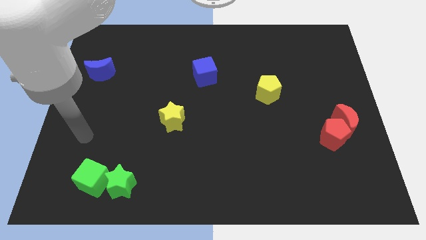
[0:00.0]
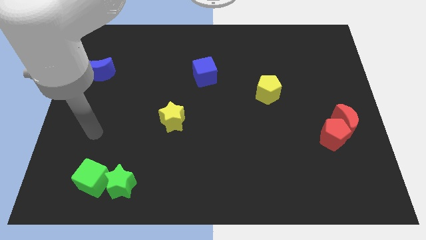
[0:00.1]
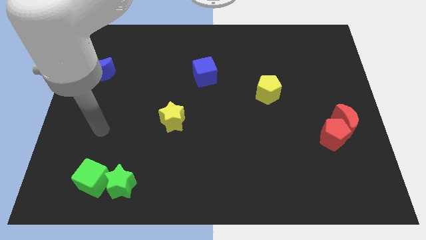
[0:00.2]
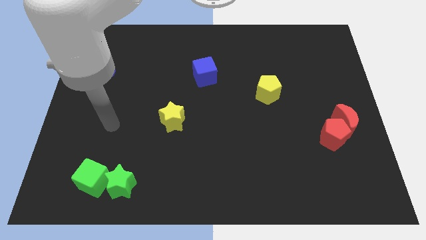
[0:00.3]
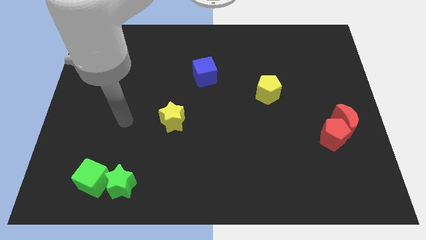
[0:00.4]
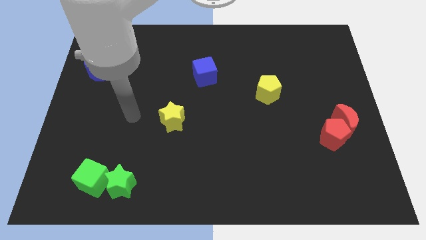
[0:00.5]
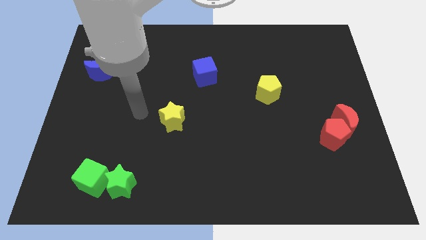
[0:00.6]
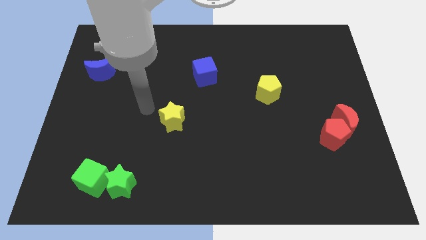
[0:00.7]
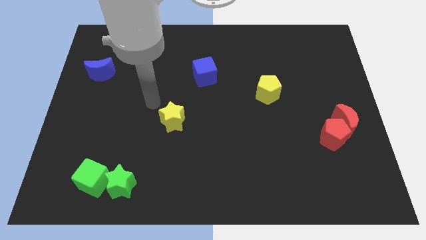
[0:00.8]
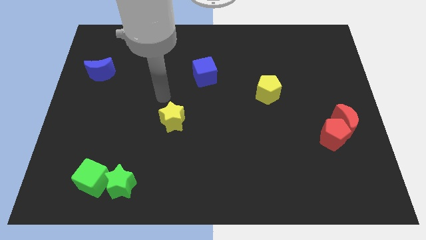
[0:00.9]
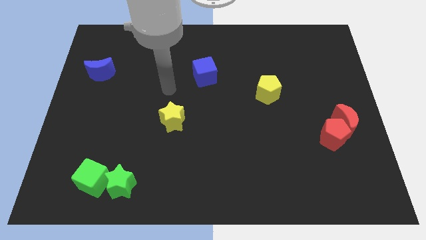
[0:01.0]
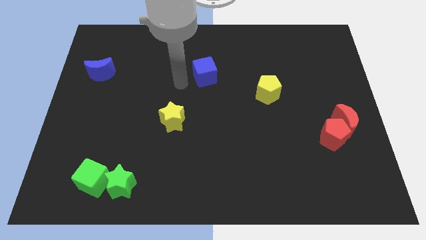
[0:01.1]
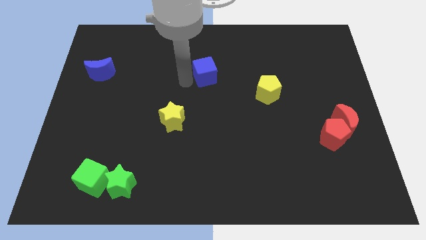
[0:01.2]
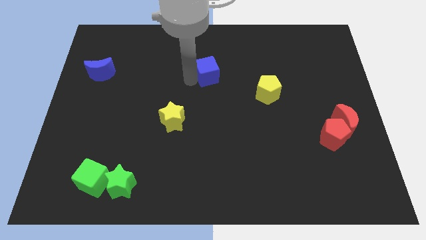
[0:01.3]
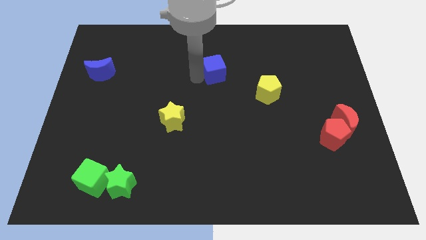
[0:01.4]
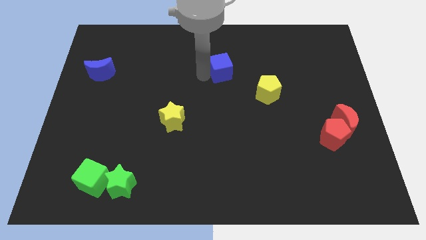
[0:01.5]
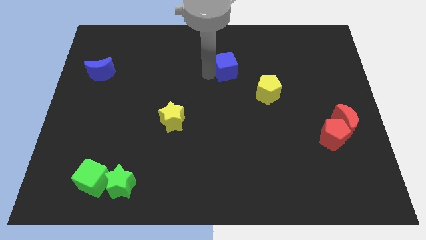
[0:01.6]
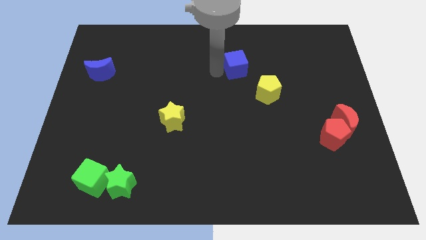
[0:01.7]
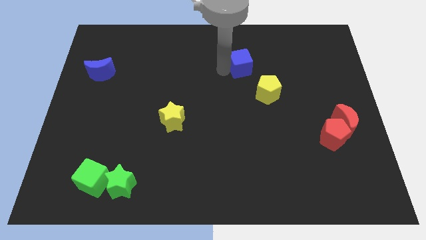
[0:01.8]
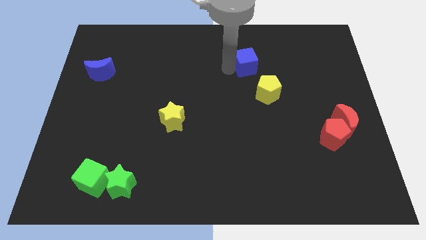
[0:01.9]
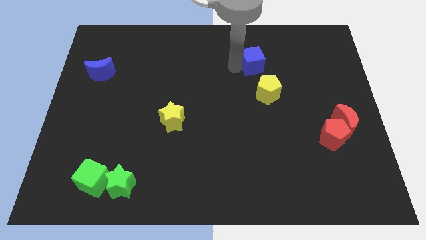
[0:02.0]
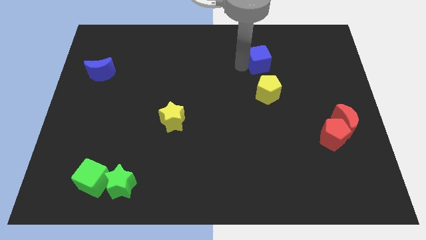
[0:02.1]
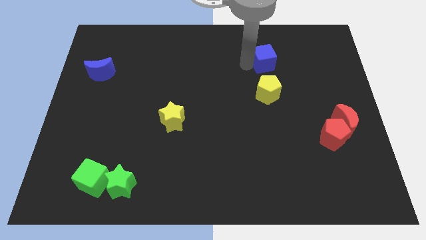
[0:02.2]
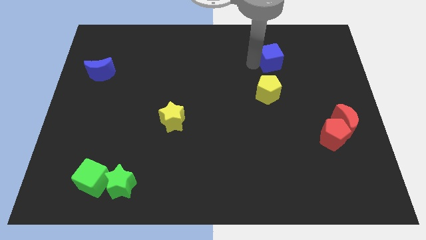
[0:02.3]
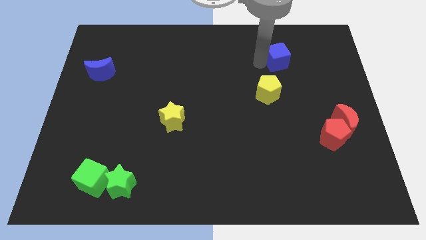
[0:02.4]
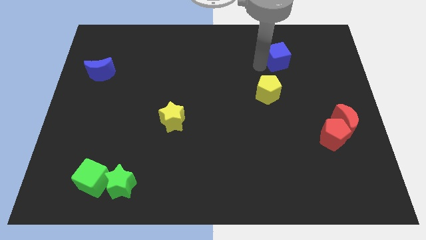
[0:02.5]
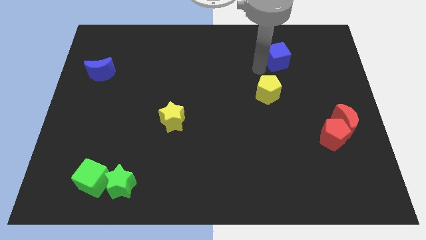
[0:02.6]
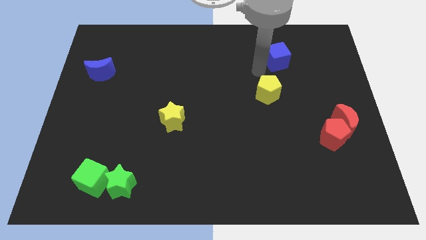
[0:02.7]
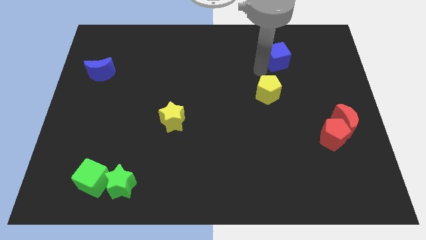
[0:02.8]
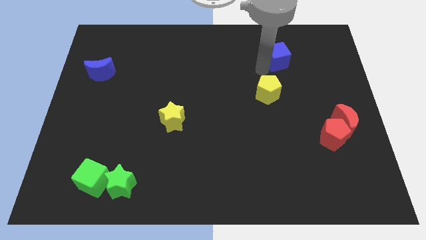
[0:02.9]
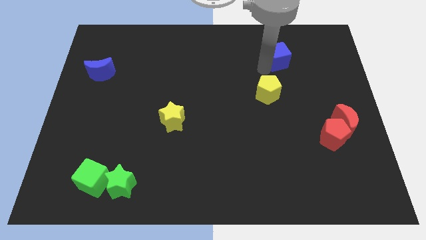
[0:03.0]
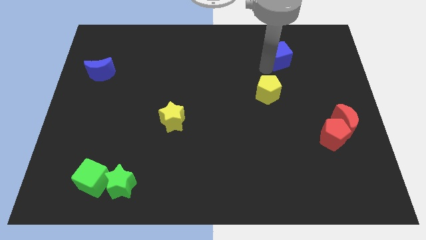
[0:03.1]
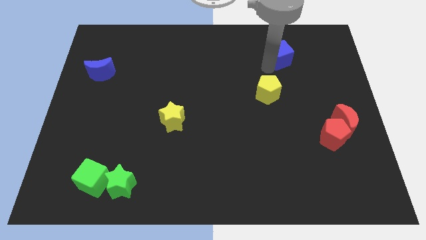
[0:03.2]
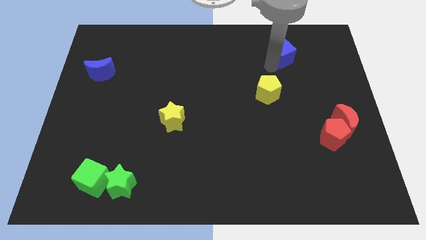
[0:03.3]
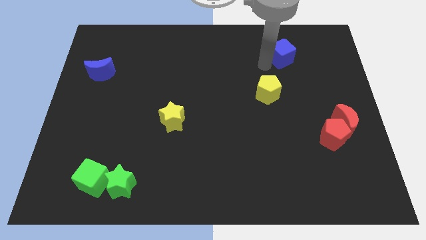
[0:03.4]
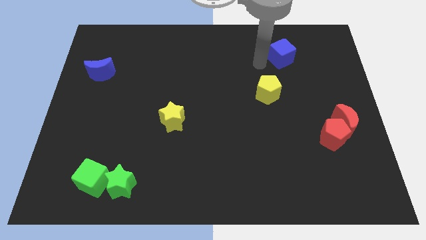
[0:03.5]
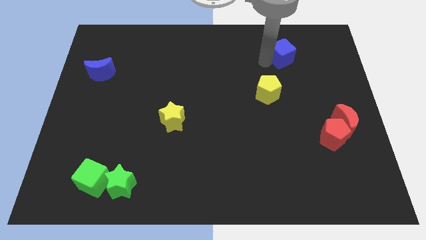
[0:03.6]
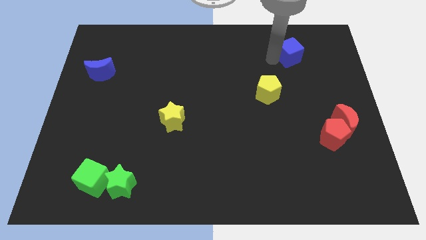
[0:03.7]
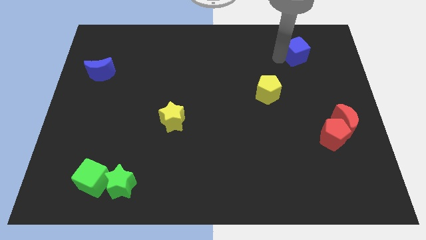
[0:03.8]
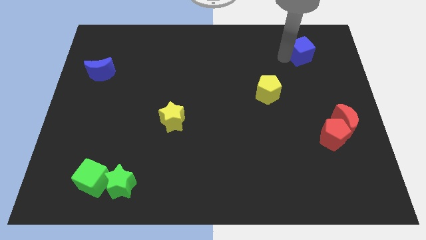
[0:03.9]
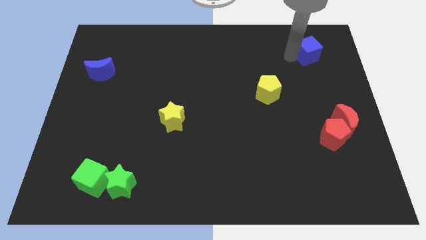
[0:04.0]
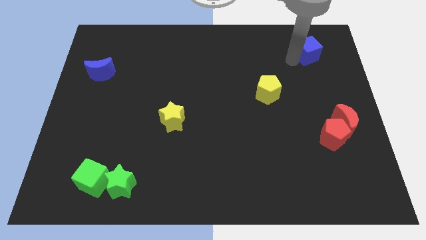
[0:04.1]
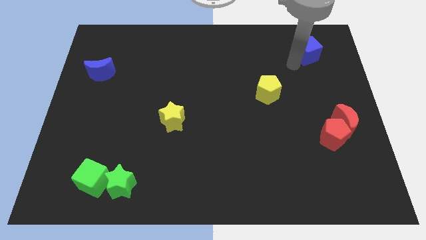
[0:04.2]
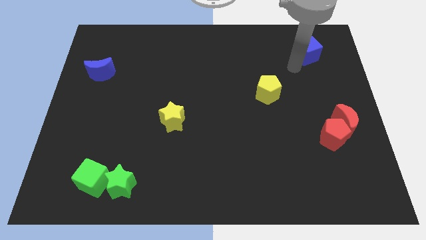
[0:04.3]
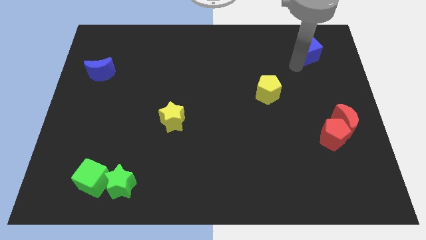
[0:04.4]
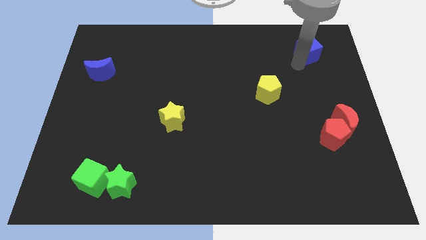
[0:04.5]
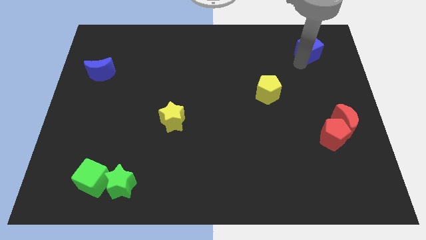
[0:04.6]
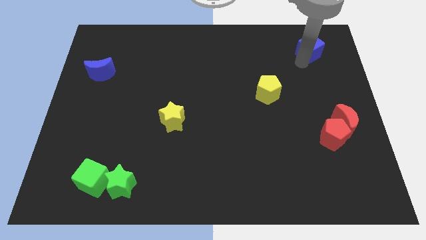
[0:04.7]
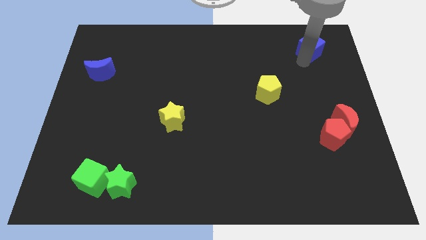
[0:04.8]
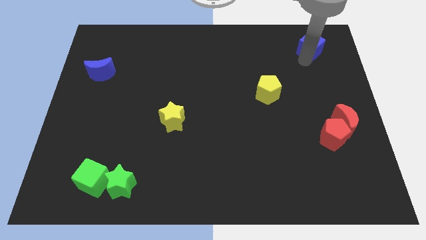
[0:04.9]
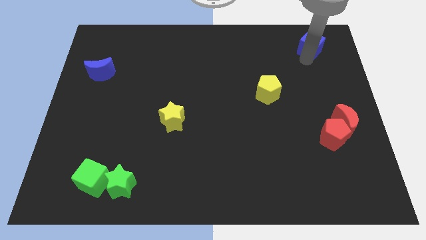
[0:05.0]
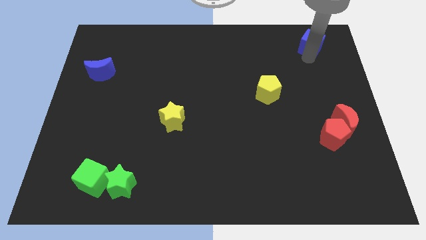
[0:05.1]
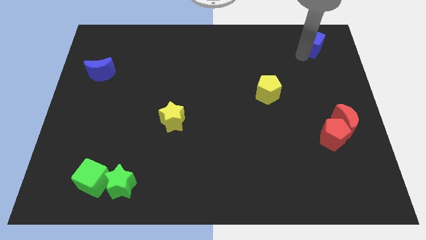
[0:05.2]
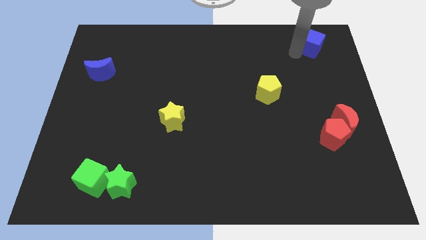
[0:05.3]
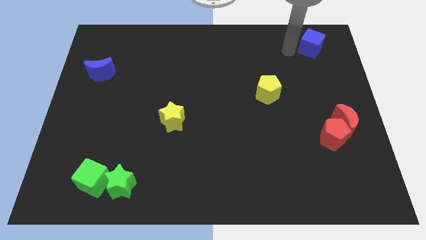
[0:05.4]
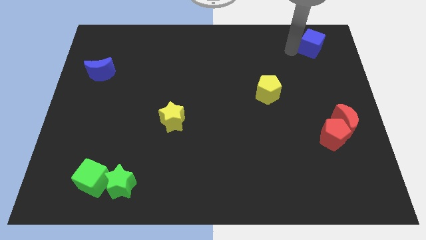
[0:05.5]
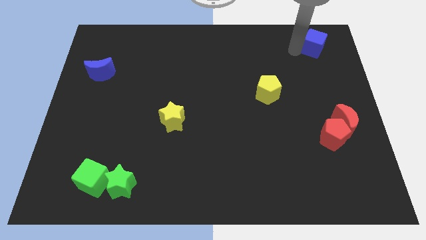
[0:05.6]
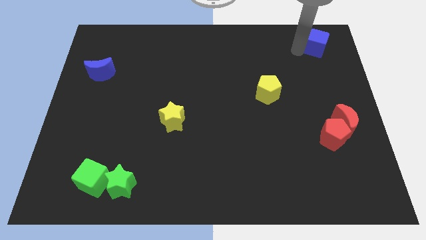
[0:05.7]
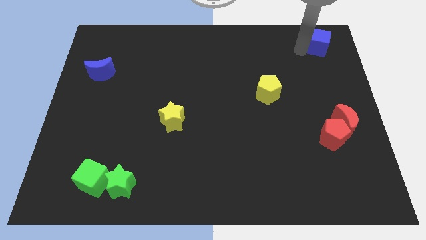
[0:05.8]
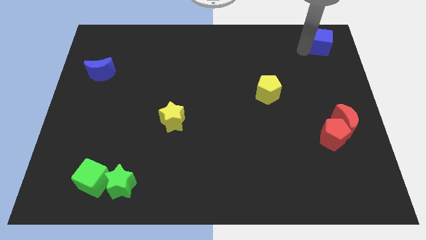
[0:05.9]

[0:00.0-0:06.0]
move the blue cube to the top right of the board

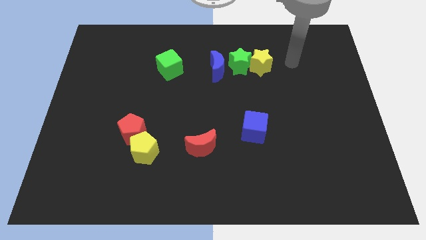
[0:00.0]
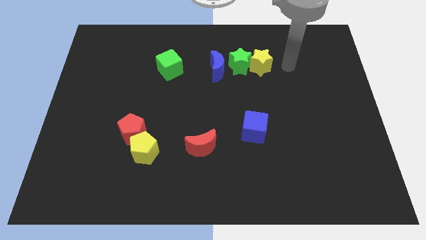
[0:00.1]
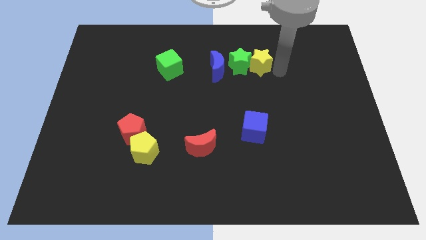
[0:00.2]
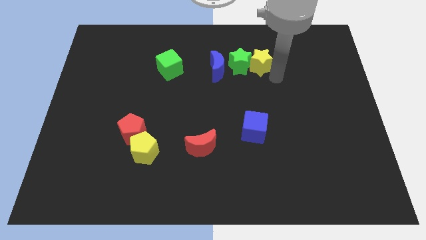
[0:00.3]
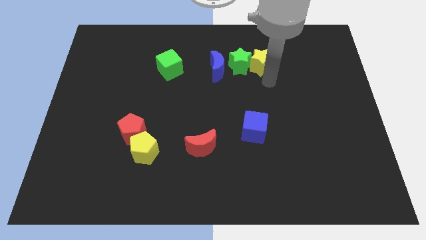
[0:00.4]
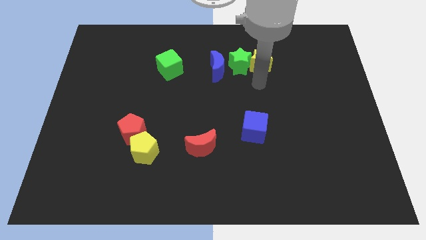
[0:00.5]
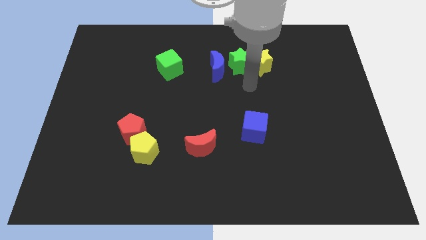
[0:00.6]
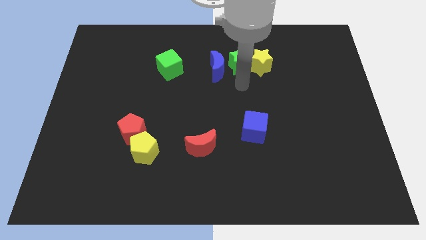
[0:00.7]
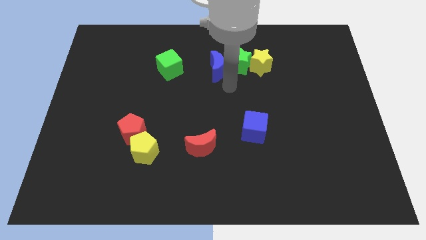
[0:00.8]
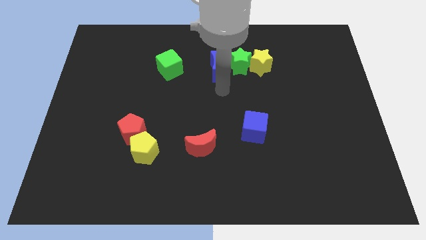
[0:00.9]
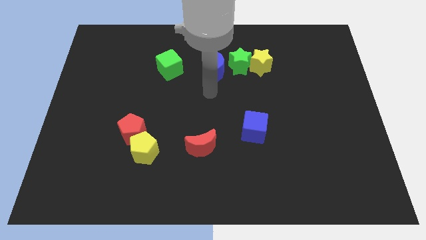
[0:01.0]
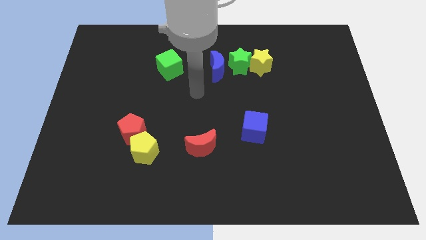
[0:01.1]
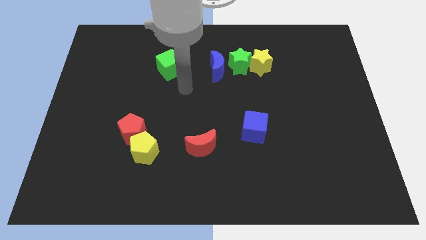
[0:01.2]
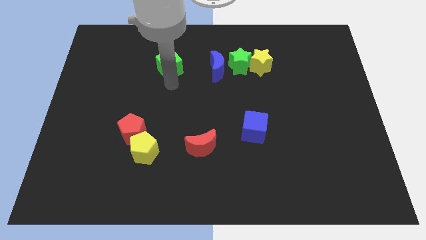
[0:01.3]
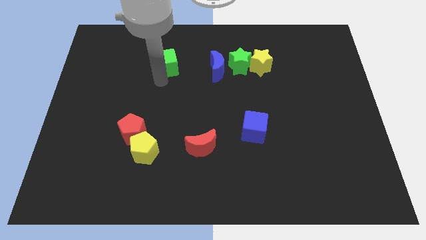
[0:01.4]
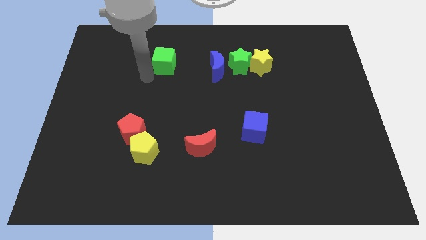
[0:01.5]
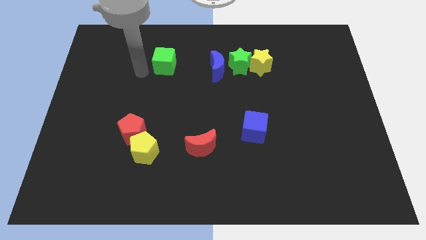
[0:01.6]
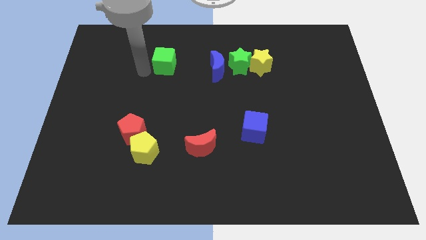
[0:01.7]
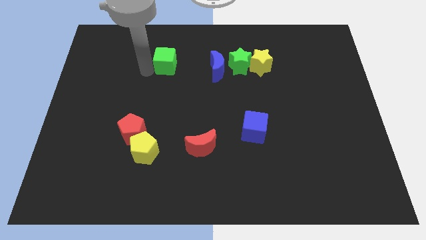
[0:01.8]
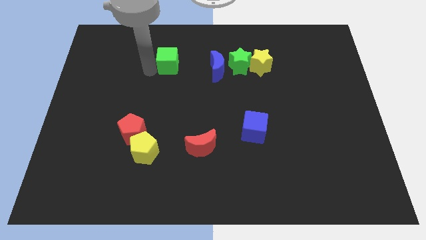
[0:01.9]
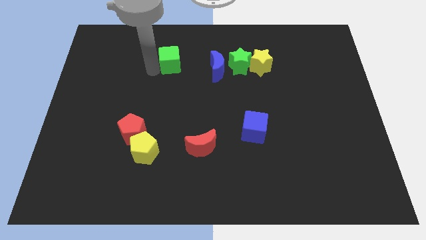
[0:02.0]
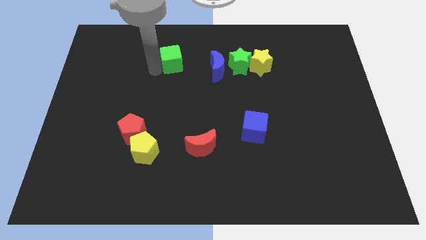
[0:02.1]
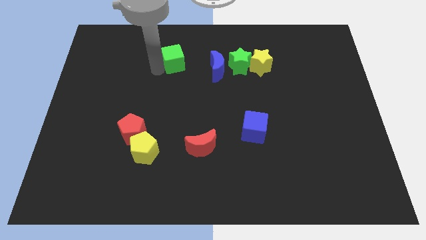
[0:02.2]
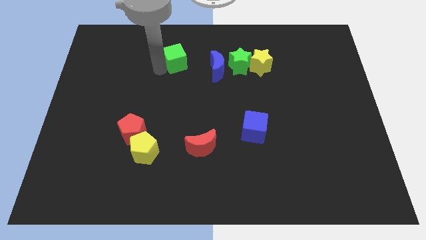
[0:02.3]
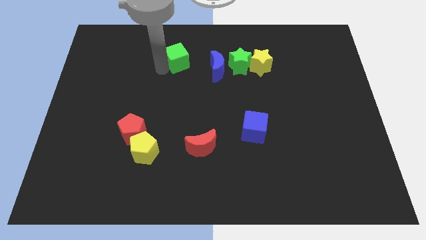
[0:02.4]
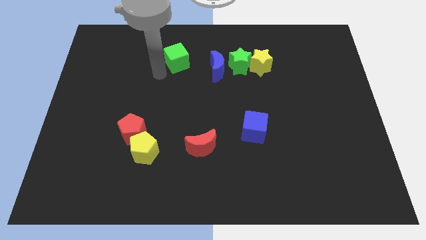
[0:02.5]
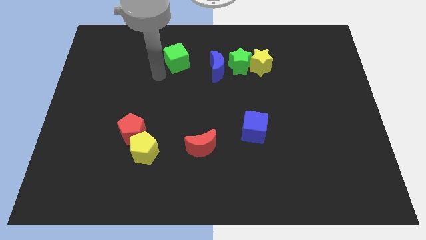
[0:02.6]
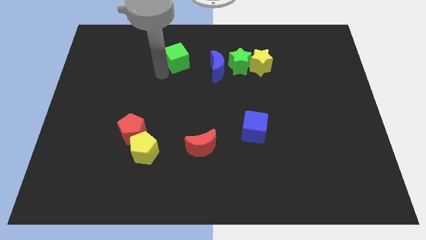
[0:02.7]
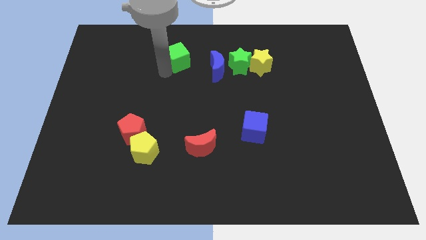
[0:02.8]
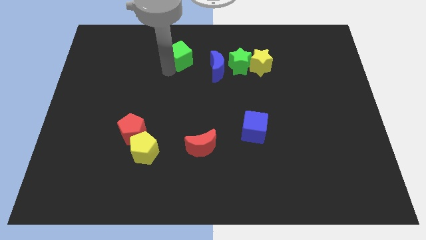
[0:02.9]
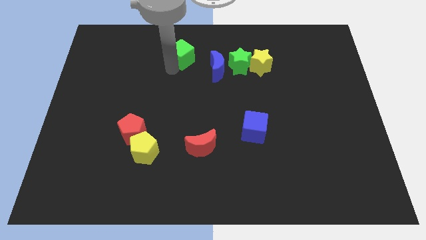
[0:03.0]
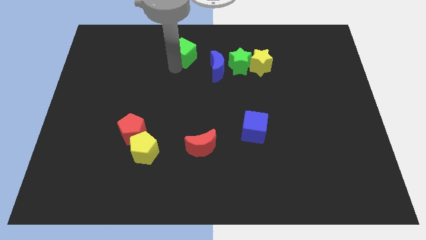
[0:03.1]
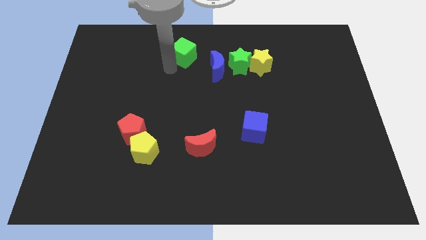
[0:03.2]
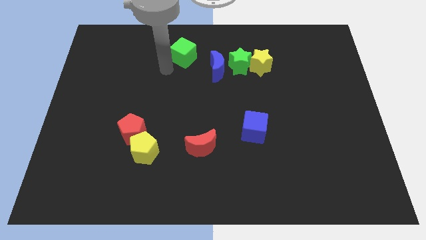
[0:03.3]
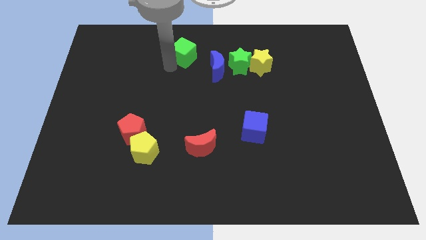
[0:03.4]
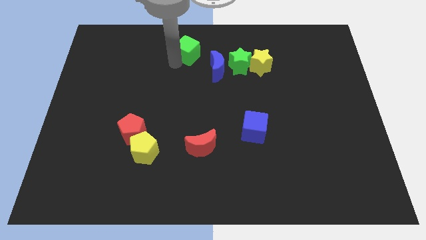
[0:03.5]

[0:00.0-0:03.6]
put the green cube to the towards your base
